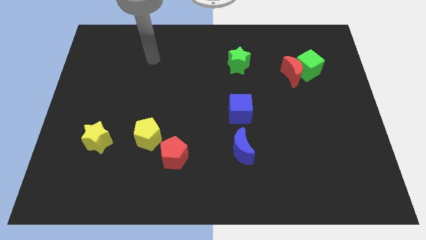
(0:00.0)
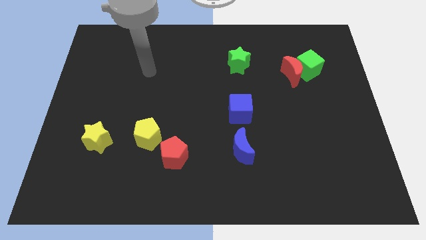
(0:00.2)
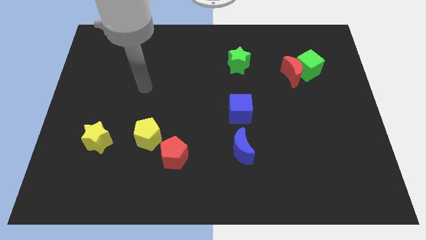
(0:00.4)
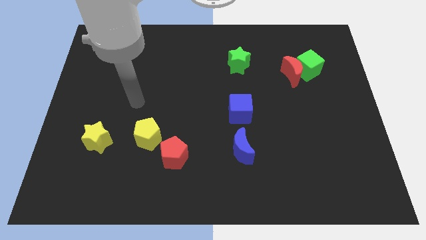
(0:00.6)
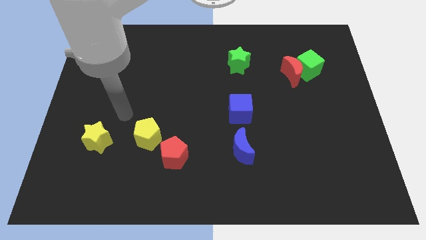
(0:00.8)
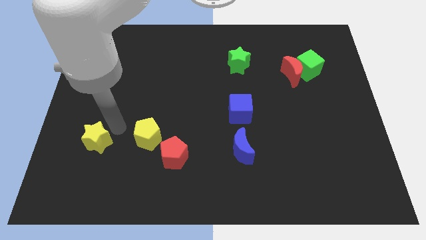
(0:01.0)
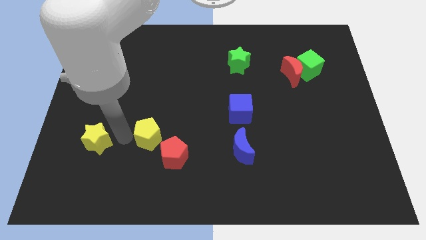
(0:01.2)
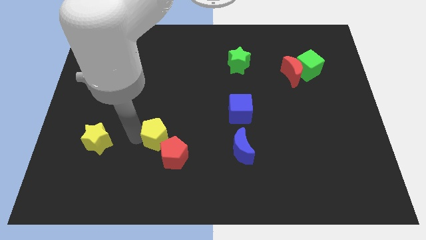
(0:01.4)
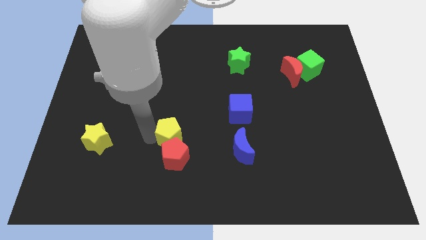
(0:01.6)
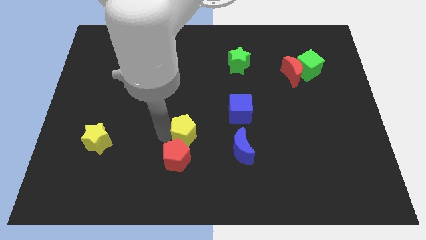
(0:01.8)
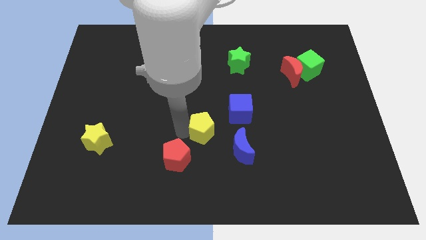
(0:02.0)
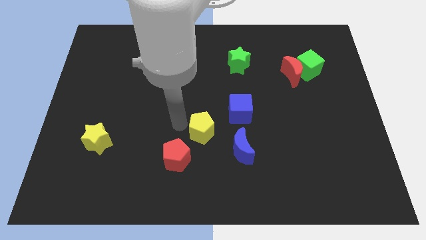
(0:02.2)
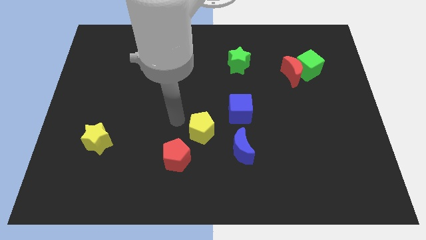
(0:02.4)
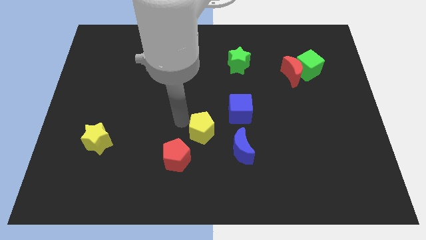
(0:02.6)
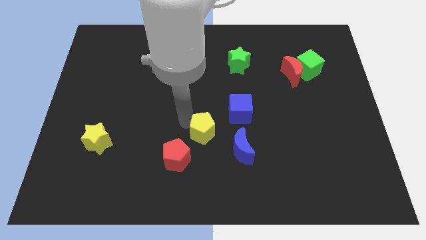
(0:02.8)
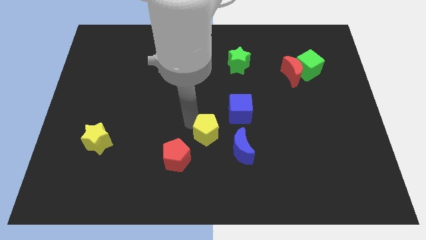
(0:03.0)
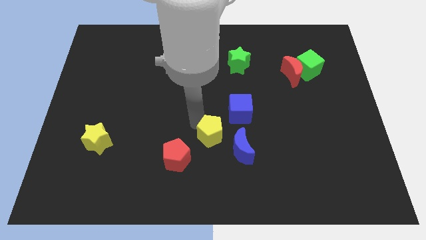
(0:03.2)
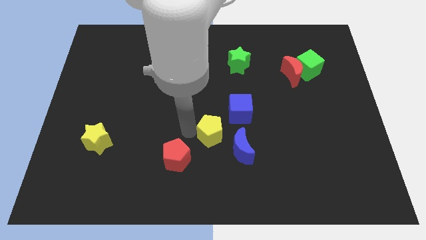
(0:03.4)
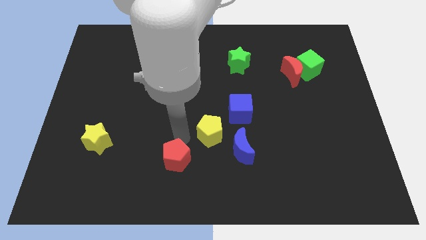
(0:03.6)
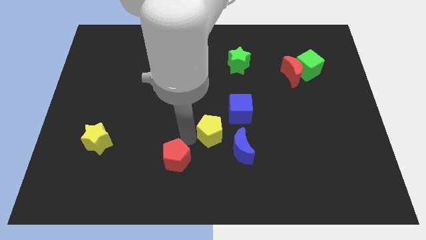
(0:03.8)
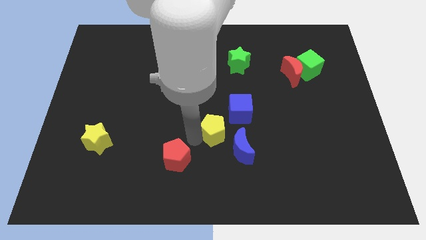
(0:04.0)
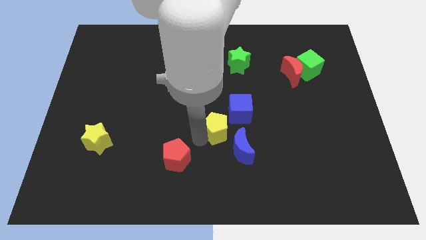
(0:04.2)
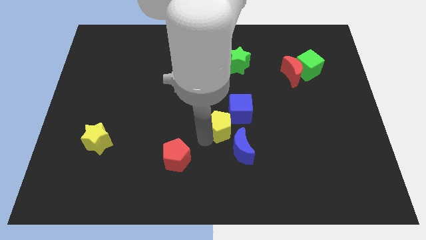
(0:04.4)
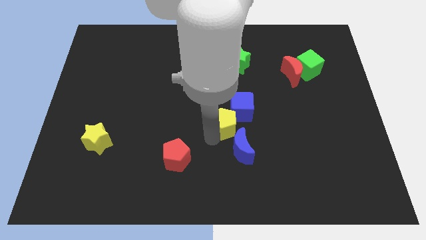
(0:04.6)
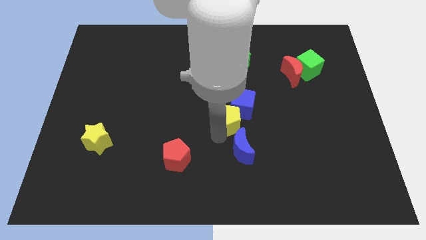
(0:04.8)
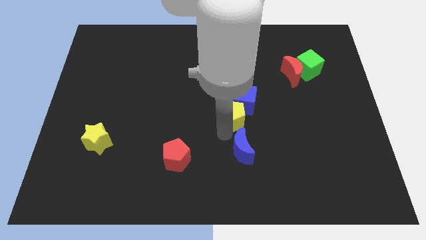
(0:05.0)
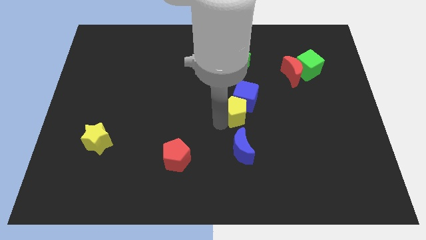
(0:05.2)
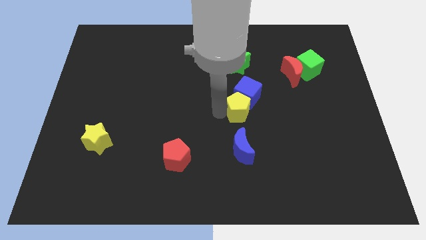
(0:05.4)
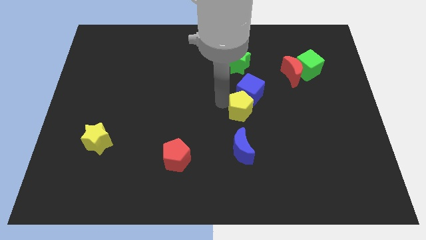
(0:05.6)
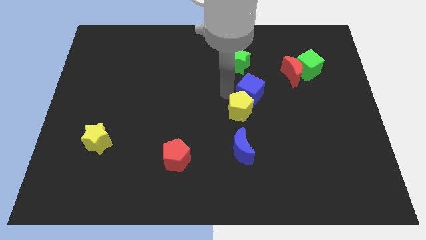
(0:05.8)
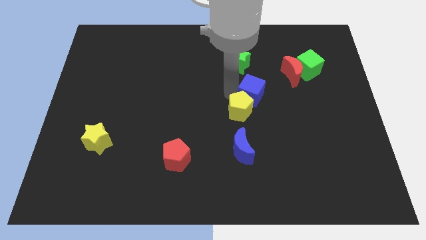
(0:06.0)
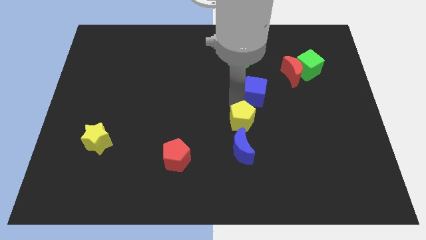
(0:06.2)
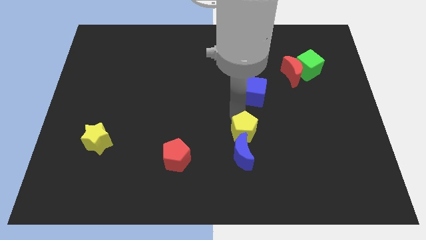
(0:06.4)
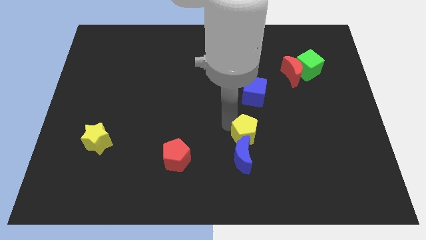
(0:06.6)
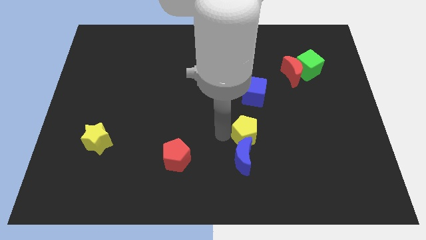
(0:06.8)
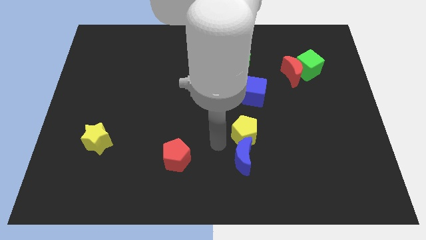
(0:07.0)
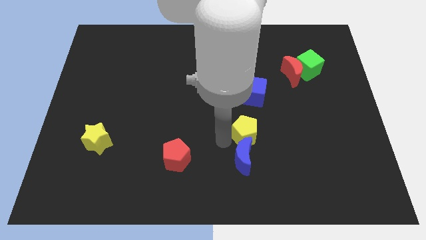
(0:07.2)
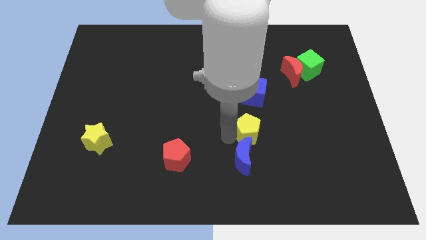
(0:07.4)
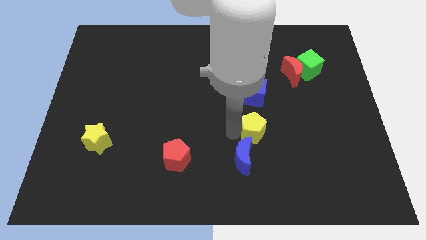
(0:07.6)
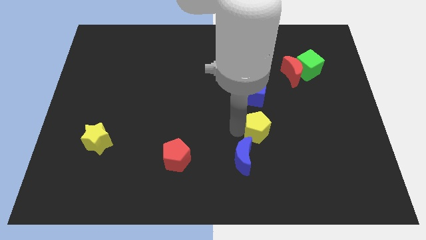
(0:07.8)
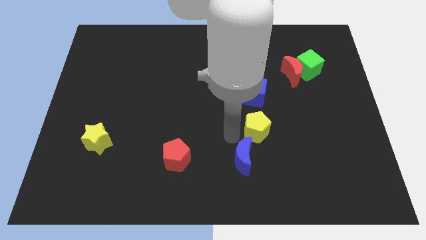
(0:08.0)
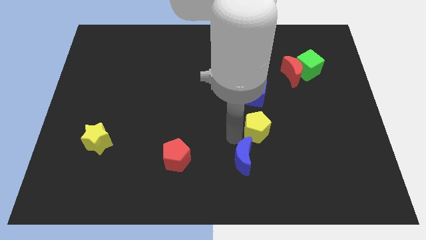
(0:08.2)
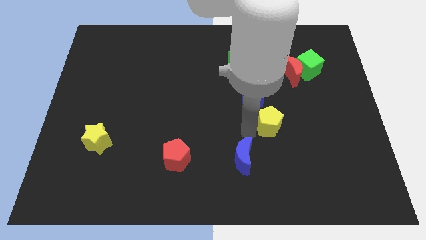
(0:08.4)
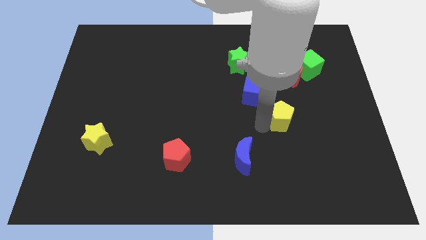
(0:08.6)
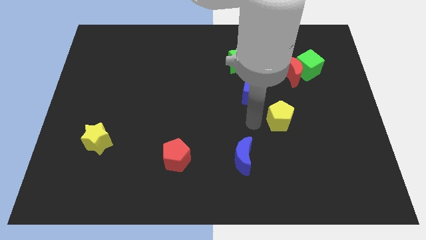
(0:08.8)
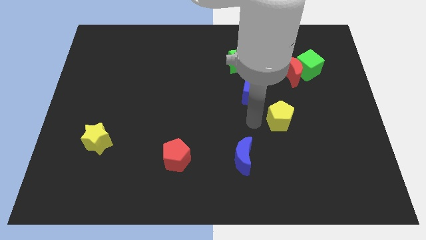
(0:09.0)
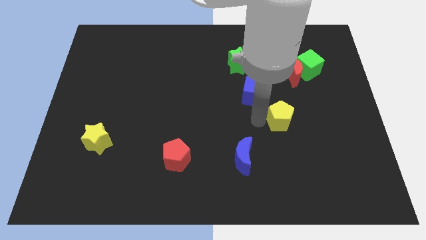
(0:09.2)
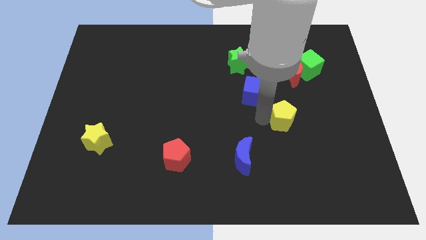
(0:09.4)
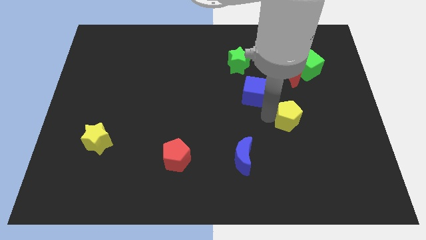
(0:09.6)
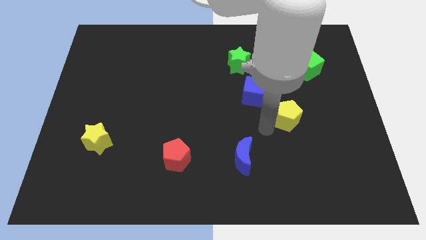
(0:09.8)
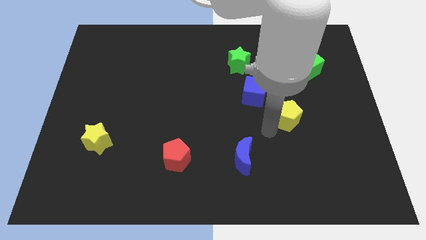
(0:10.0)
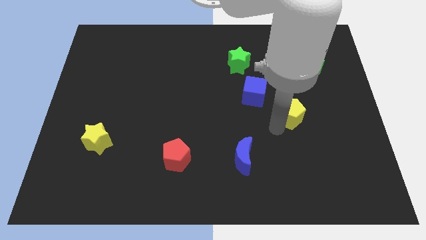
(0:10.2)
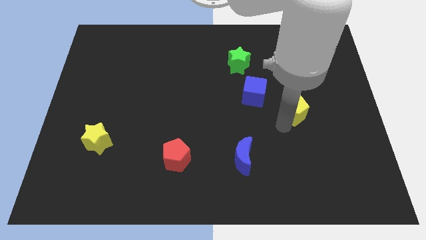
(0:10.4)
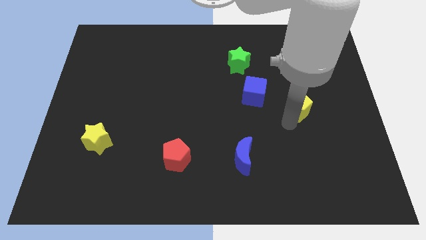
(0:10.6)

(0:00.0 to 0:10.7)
push the yellow pentagon to the bottom of the green cube

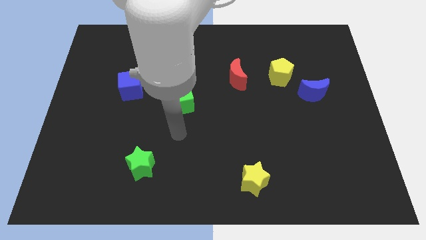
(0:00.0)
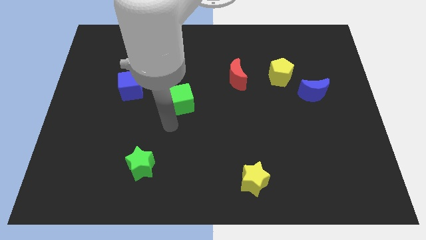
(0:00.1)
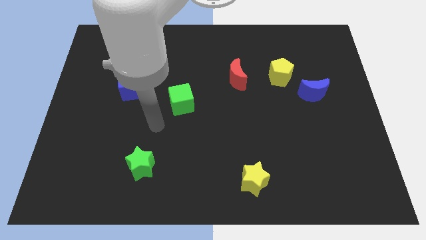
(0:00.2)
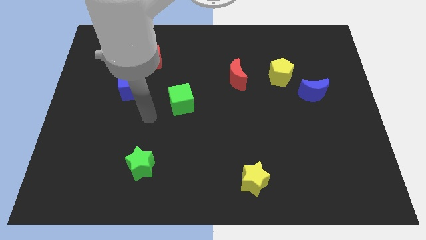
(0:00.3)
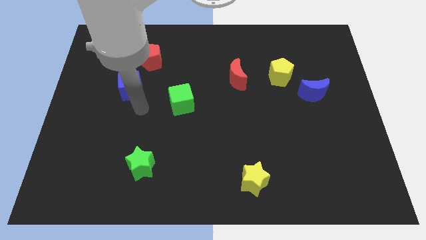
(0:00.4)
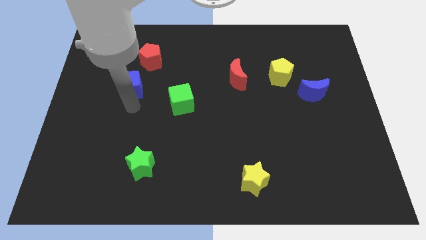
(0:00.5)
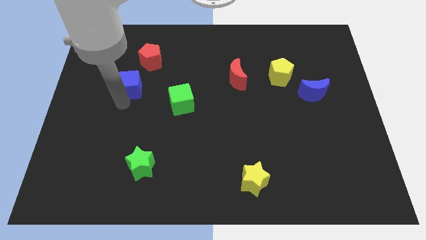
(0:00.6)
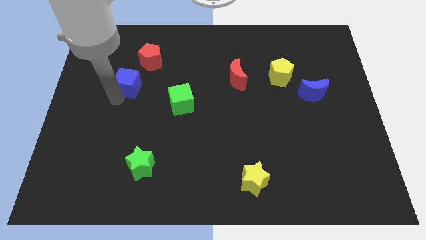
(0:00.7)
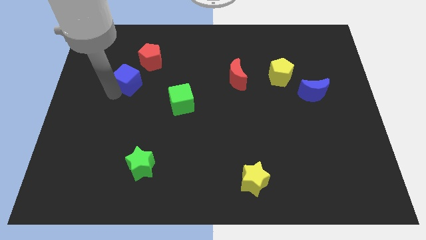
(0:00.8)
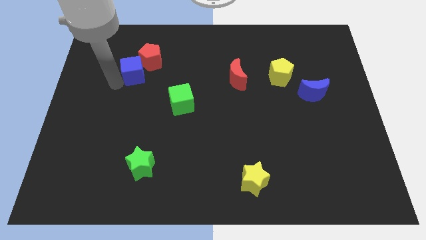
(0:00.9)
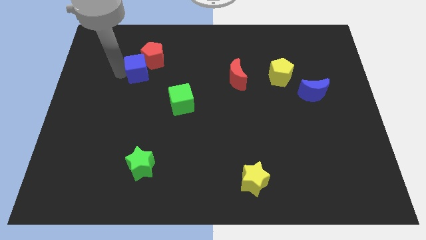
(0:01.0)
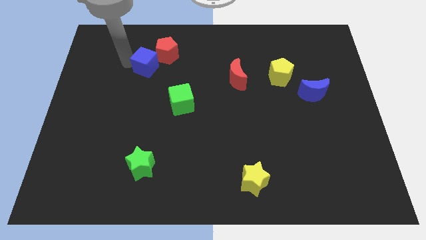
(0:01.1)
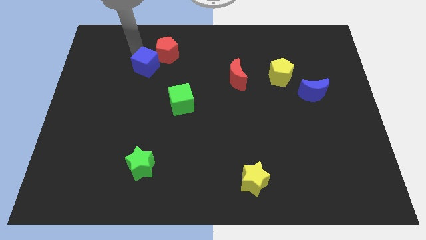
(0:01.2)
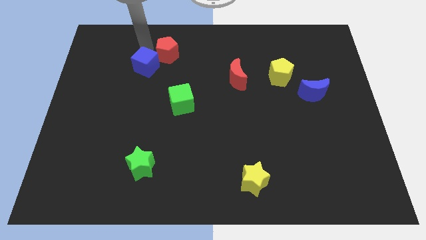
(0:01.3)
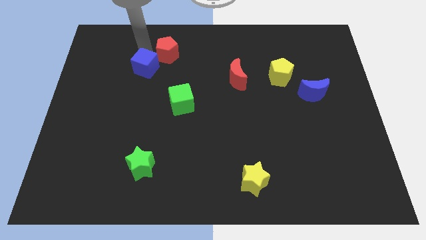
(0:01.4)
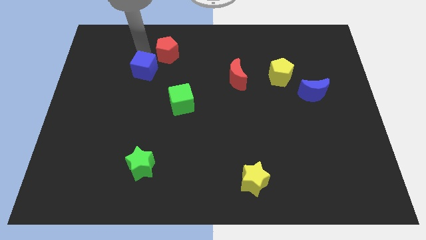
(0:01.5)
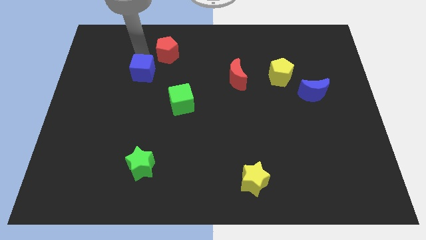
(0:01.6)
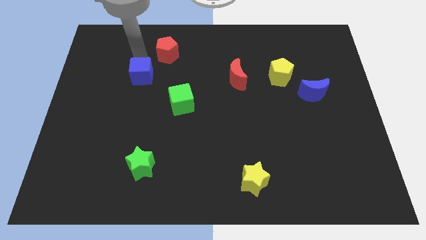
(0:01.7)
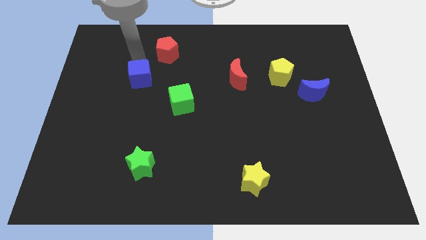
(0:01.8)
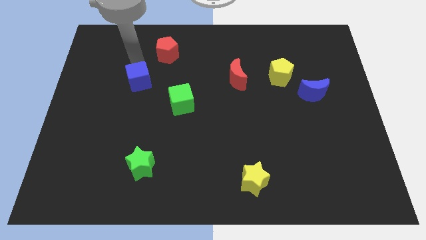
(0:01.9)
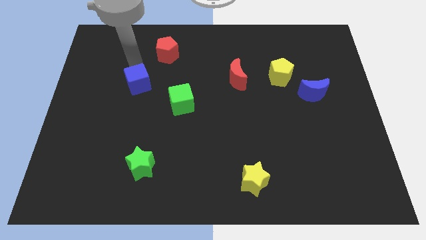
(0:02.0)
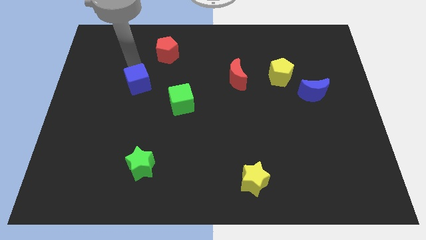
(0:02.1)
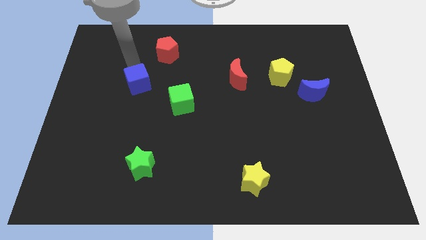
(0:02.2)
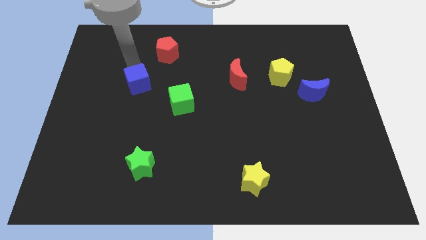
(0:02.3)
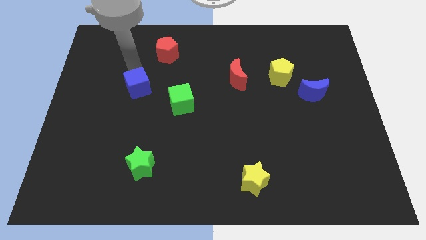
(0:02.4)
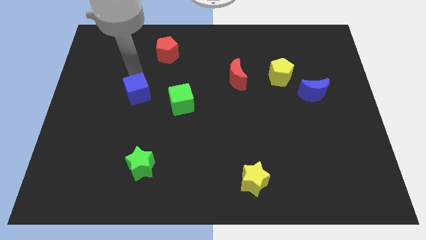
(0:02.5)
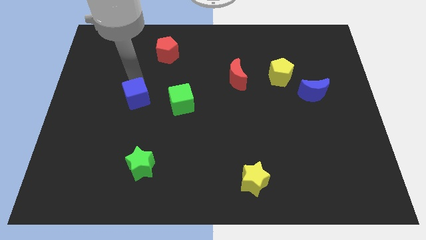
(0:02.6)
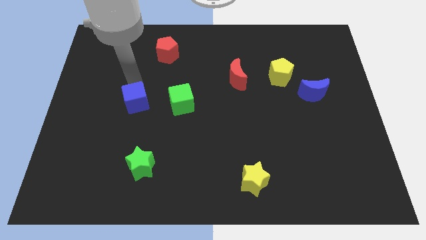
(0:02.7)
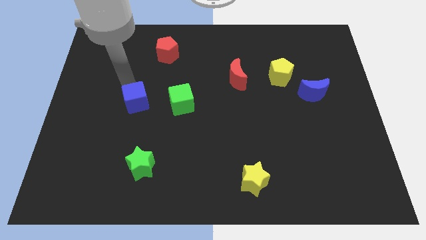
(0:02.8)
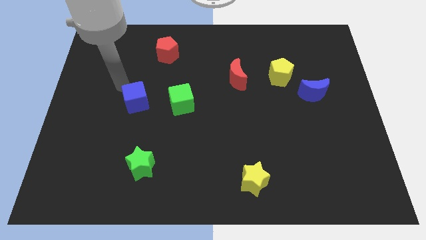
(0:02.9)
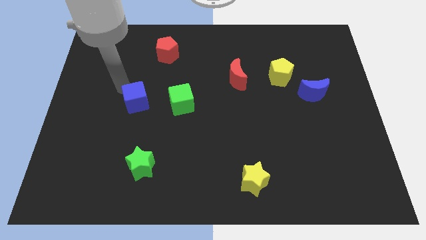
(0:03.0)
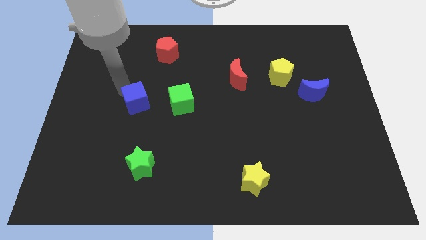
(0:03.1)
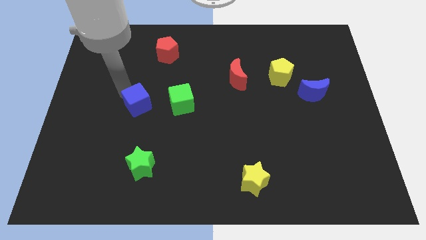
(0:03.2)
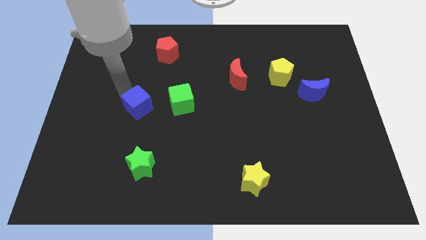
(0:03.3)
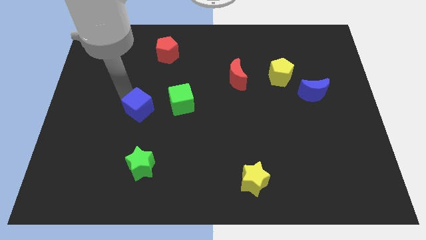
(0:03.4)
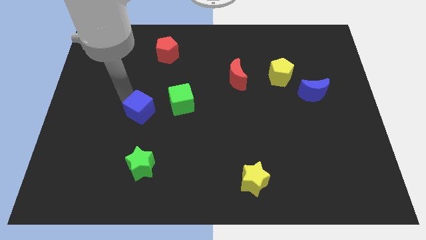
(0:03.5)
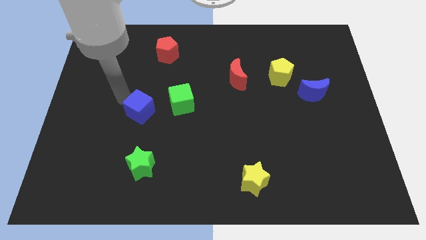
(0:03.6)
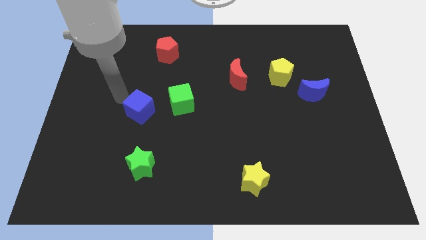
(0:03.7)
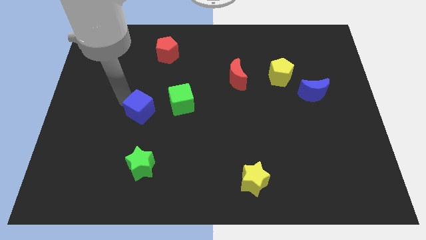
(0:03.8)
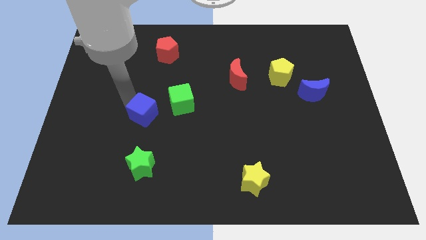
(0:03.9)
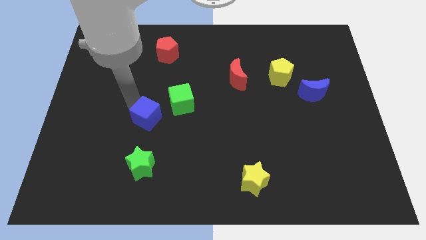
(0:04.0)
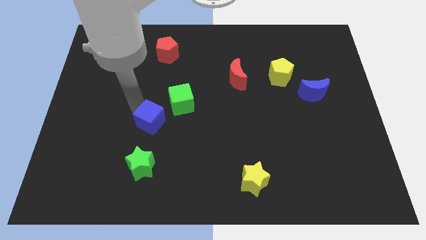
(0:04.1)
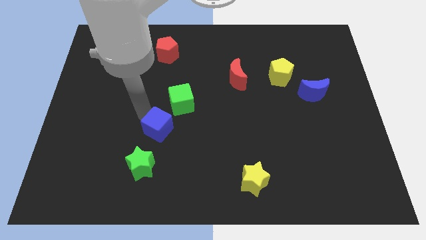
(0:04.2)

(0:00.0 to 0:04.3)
slide the blue cube below the green cube
